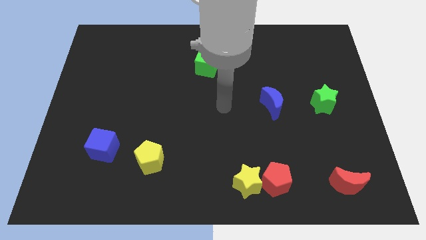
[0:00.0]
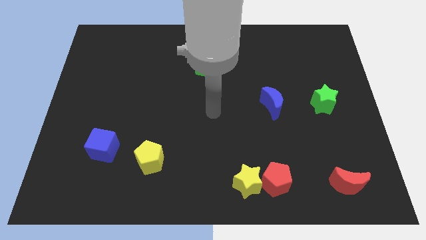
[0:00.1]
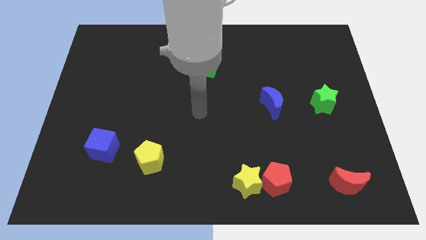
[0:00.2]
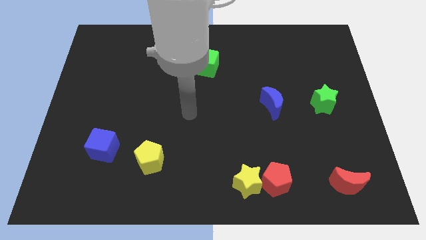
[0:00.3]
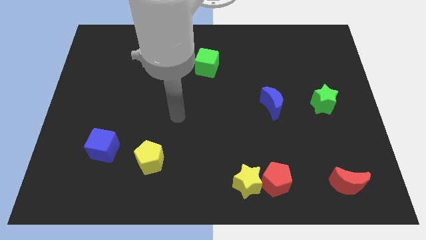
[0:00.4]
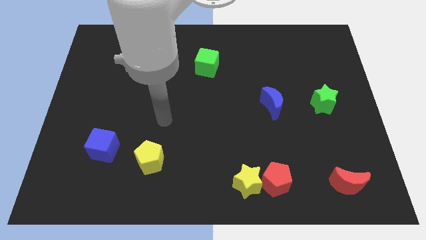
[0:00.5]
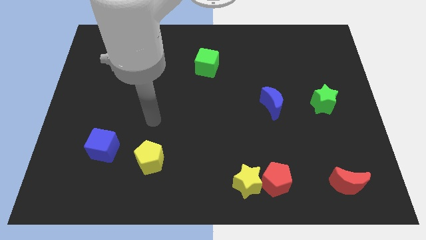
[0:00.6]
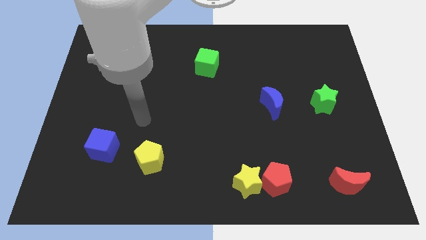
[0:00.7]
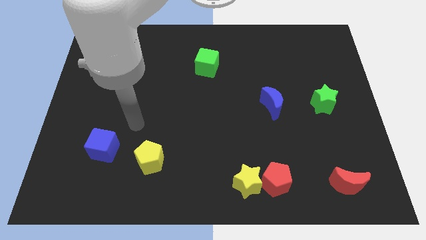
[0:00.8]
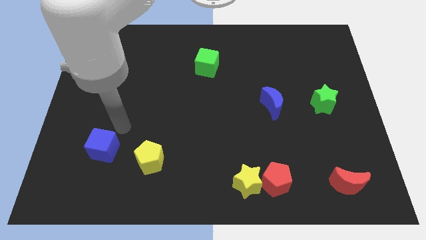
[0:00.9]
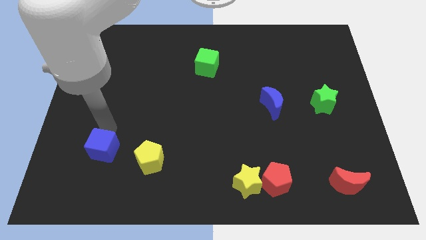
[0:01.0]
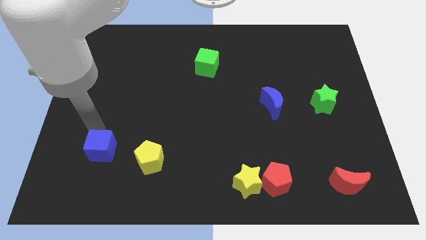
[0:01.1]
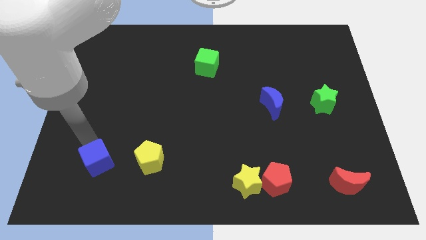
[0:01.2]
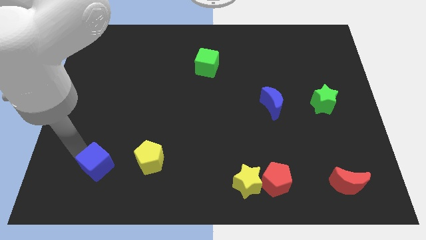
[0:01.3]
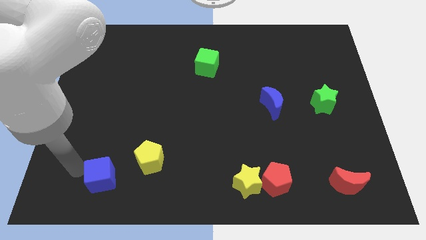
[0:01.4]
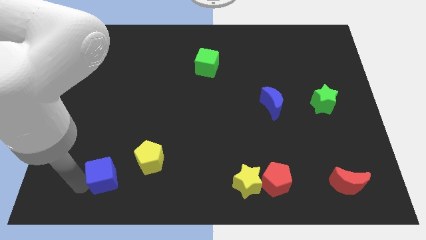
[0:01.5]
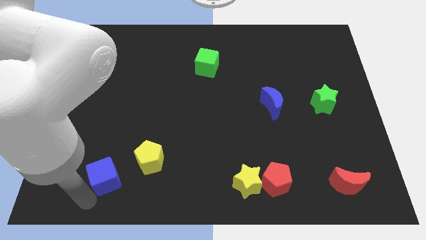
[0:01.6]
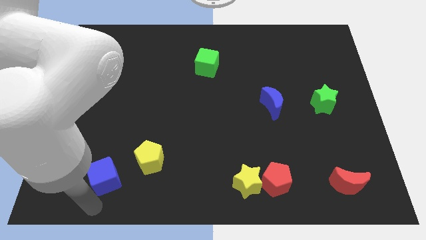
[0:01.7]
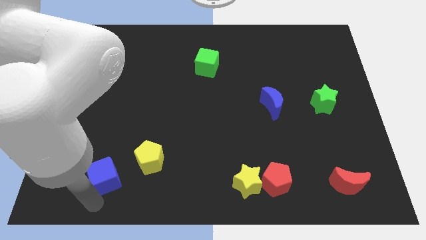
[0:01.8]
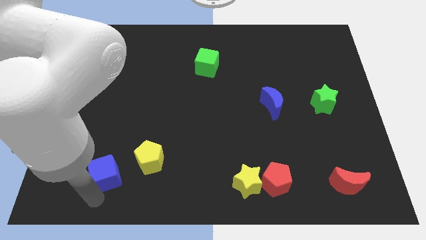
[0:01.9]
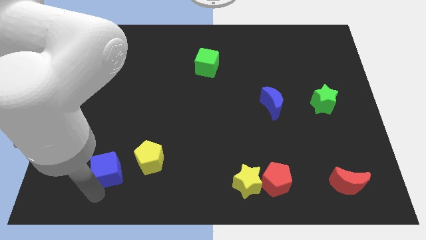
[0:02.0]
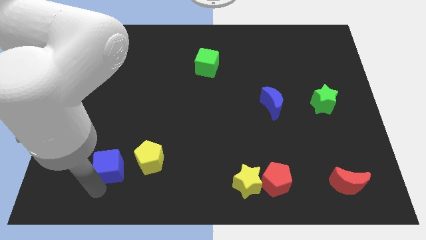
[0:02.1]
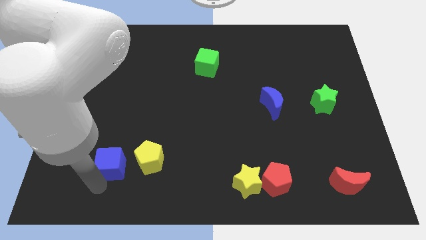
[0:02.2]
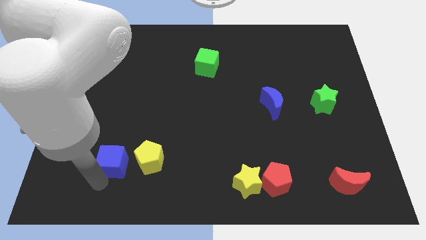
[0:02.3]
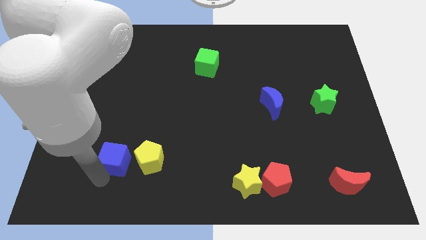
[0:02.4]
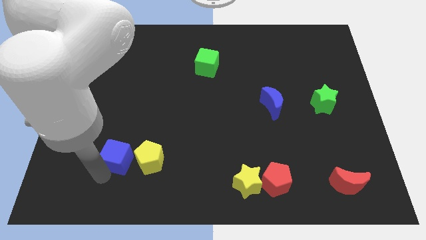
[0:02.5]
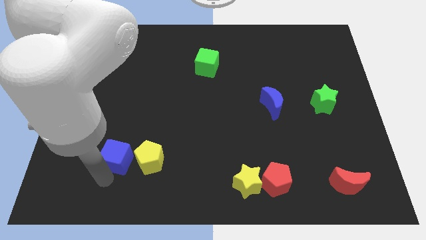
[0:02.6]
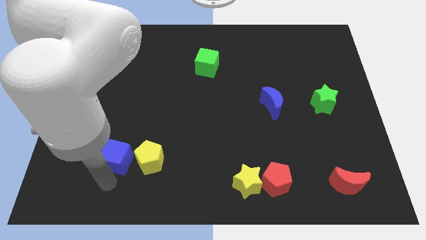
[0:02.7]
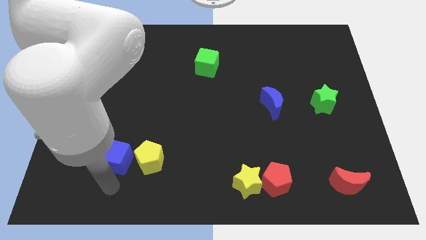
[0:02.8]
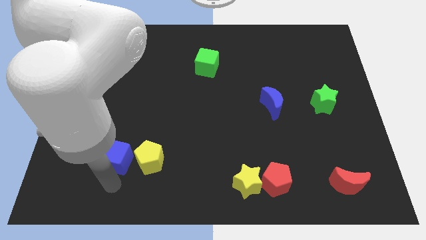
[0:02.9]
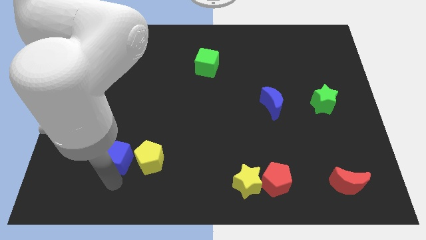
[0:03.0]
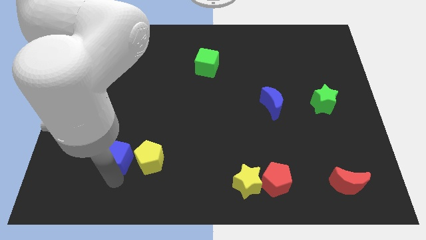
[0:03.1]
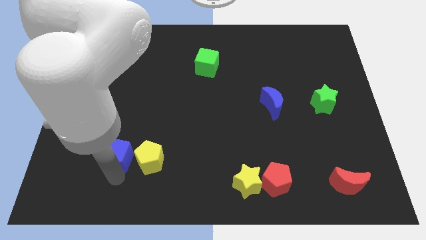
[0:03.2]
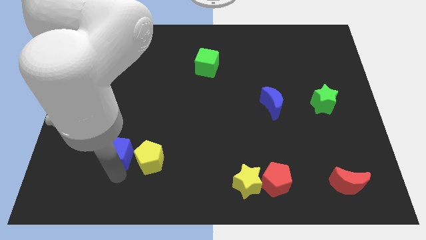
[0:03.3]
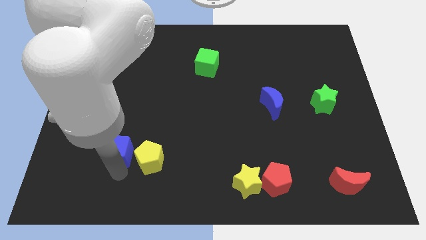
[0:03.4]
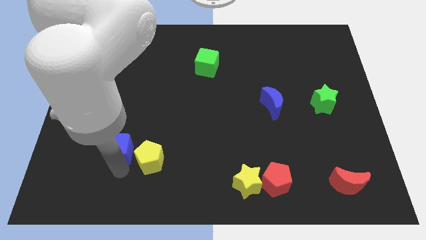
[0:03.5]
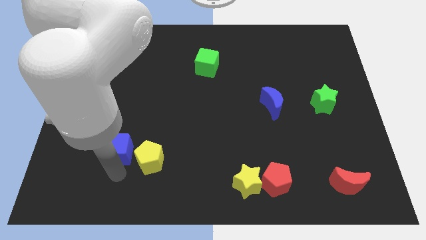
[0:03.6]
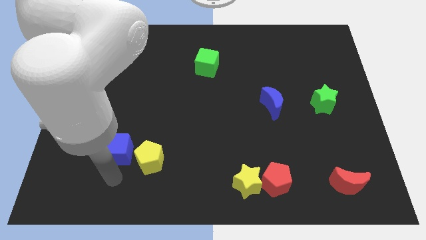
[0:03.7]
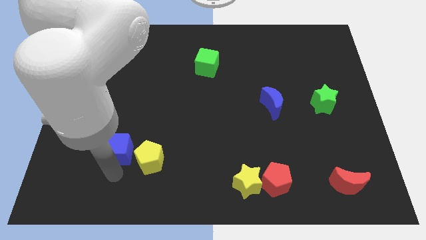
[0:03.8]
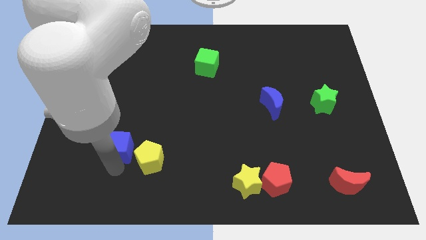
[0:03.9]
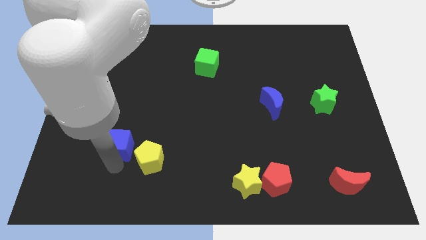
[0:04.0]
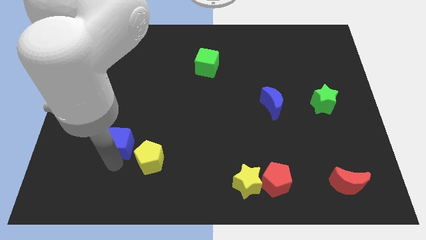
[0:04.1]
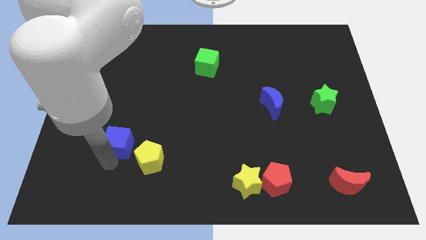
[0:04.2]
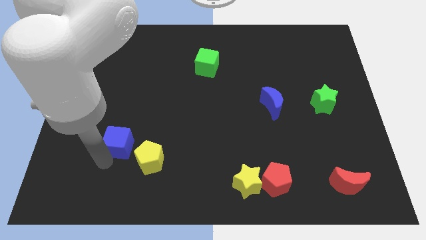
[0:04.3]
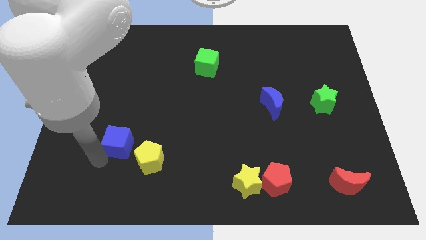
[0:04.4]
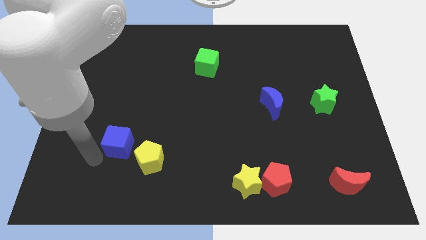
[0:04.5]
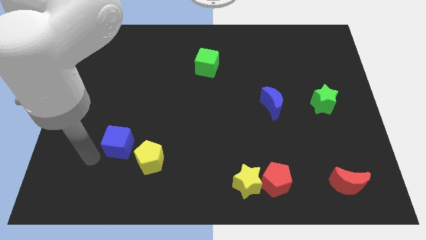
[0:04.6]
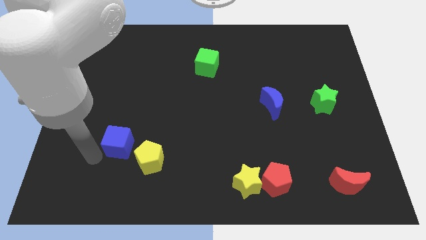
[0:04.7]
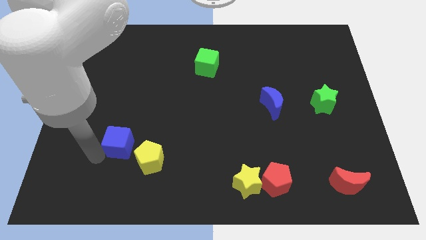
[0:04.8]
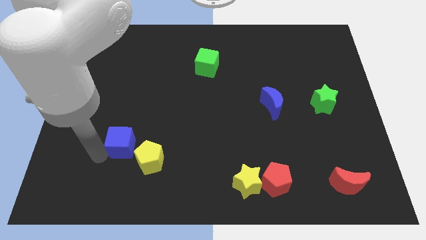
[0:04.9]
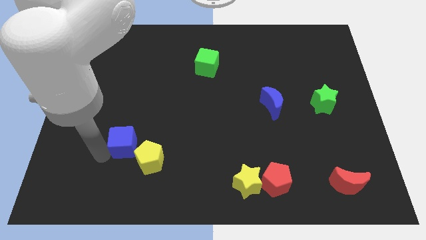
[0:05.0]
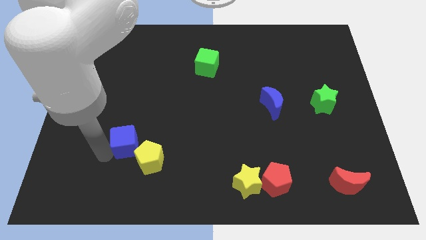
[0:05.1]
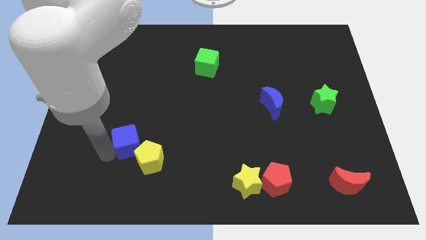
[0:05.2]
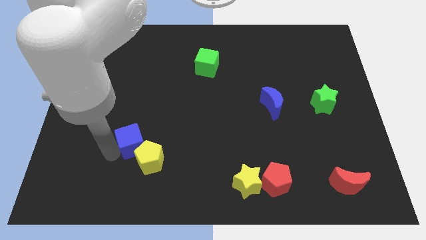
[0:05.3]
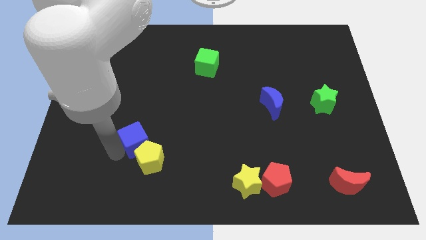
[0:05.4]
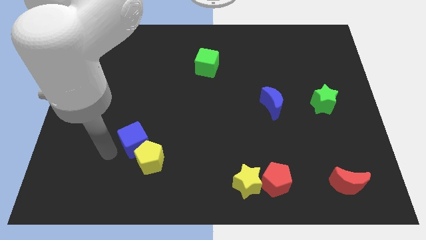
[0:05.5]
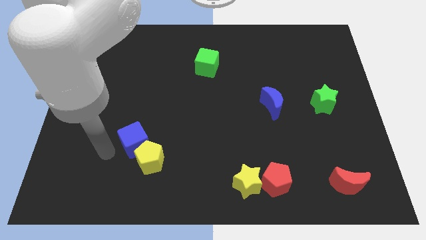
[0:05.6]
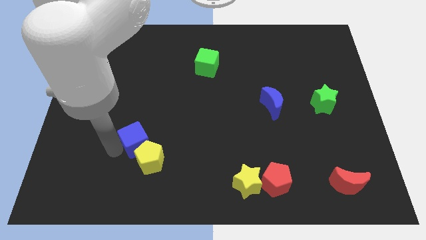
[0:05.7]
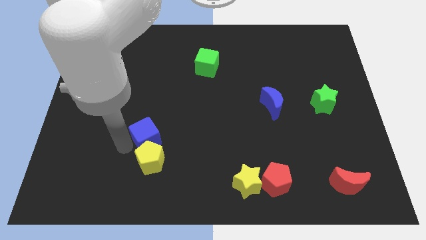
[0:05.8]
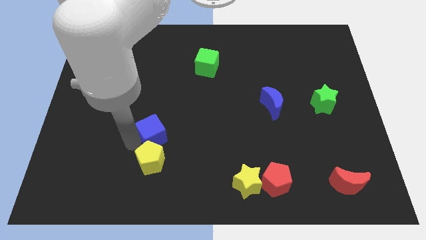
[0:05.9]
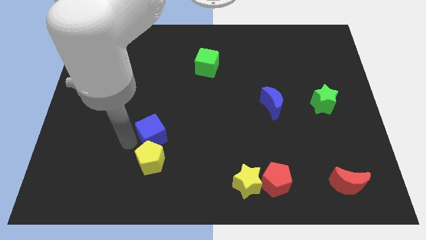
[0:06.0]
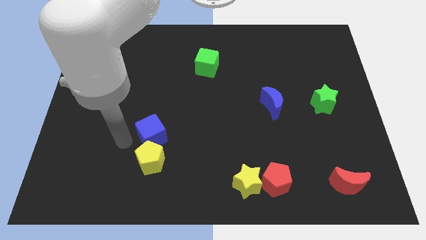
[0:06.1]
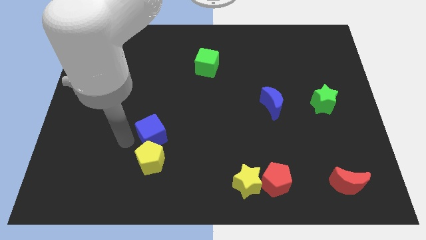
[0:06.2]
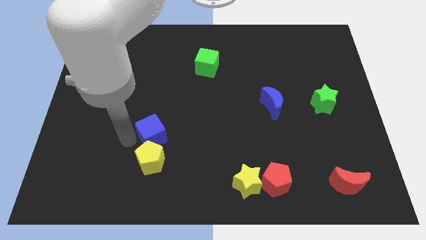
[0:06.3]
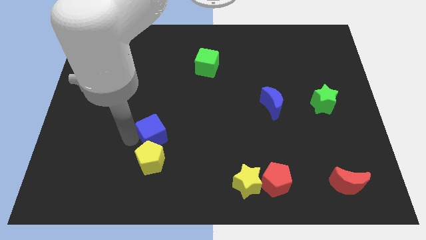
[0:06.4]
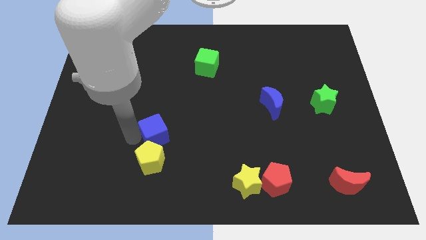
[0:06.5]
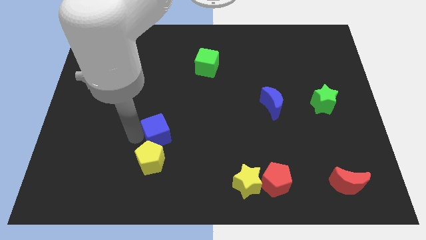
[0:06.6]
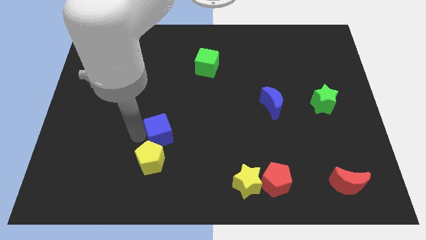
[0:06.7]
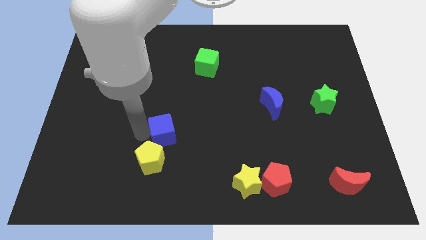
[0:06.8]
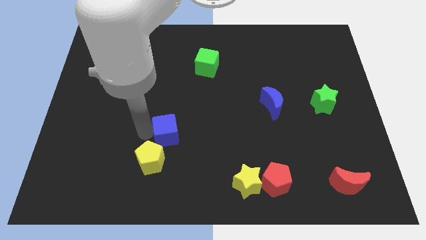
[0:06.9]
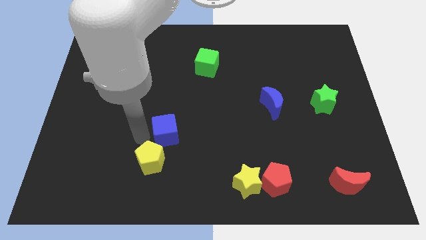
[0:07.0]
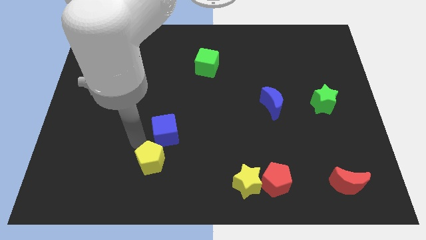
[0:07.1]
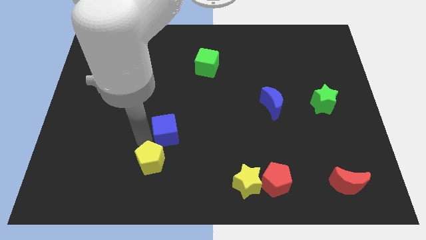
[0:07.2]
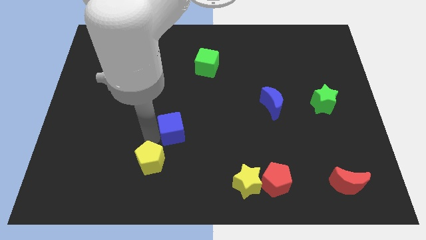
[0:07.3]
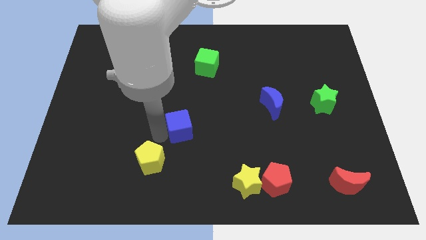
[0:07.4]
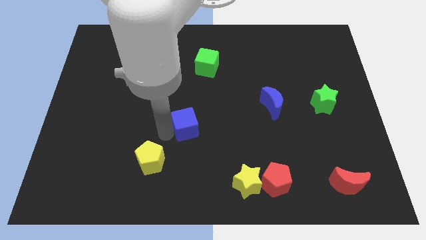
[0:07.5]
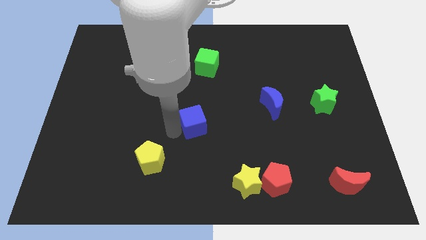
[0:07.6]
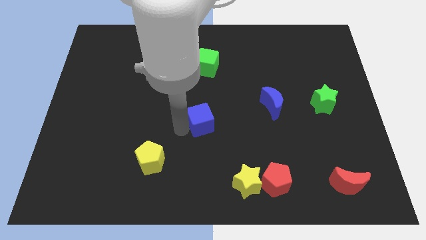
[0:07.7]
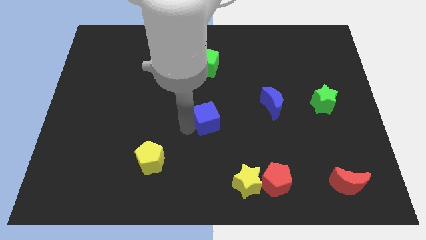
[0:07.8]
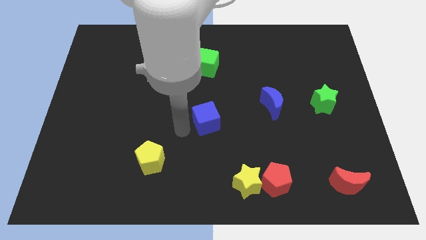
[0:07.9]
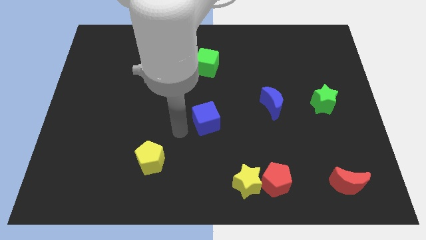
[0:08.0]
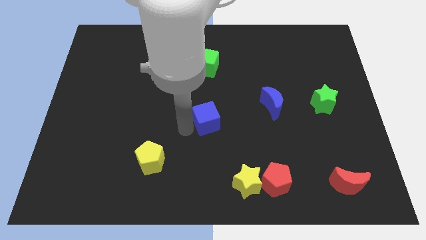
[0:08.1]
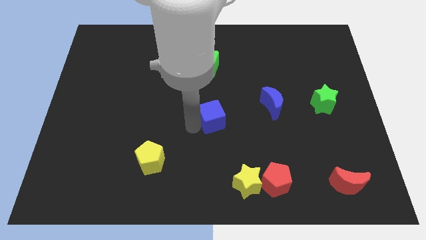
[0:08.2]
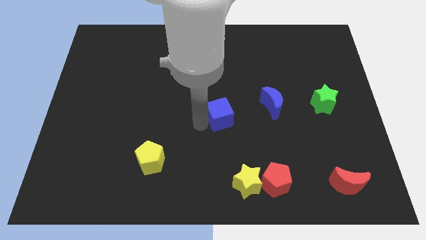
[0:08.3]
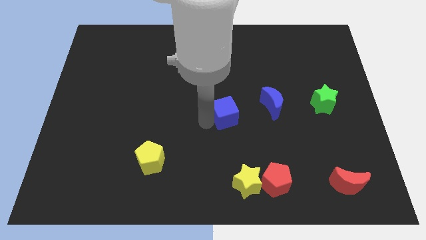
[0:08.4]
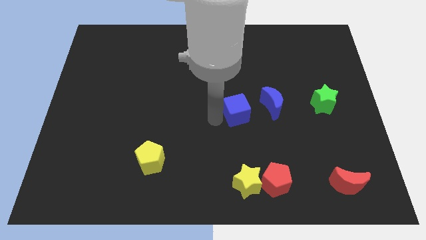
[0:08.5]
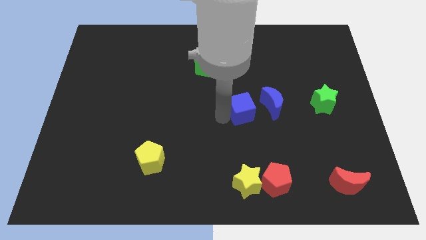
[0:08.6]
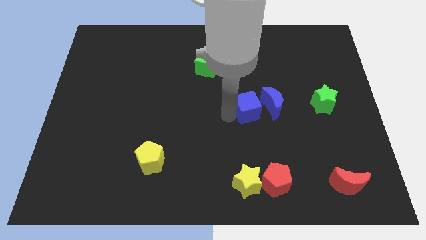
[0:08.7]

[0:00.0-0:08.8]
push the blue cube towards the blue moon
